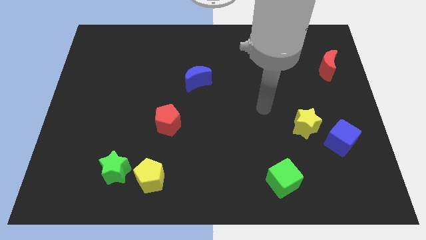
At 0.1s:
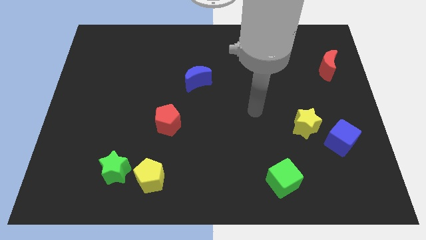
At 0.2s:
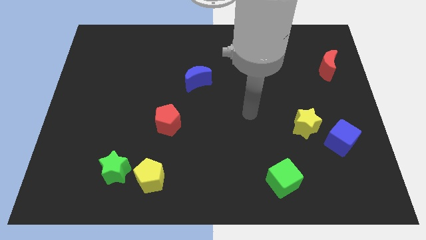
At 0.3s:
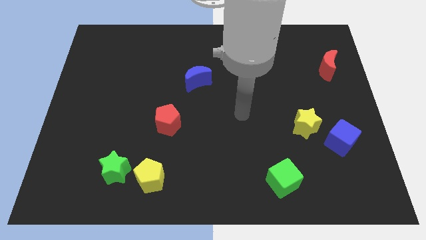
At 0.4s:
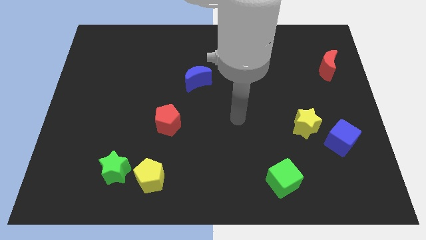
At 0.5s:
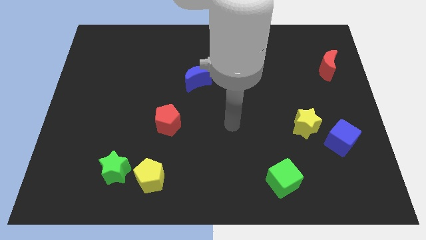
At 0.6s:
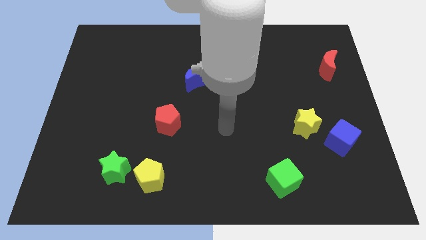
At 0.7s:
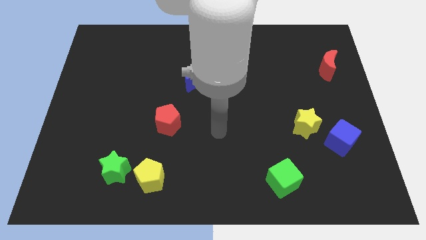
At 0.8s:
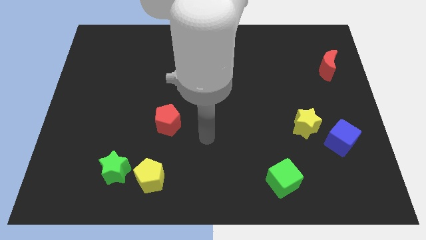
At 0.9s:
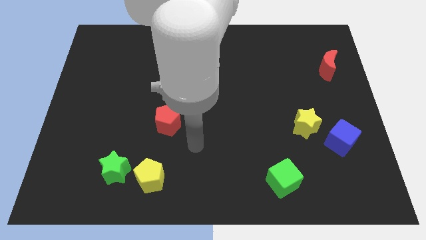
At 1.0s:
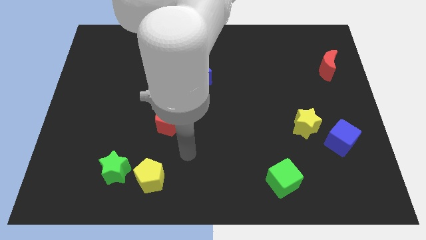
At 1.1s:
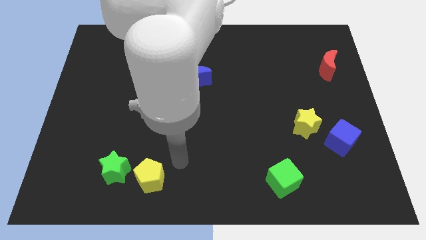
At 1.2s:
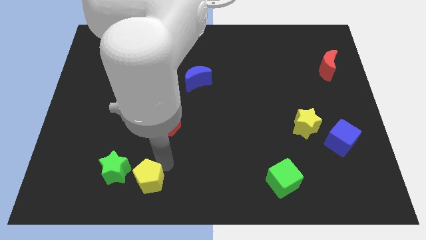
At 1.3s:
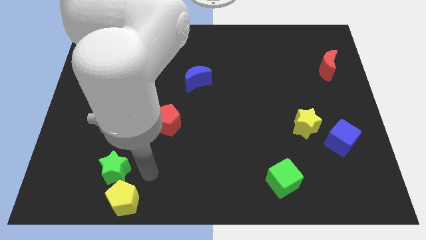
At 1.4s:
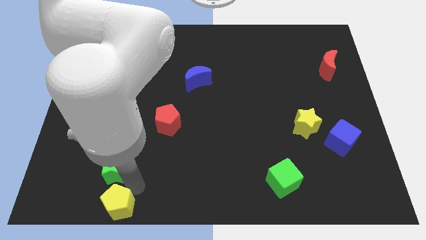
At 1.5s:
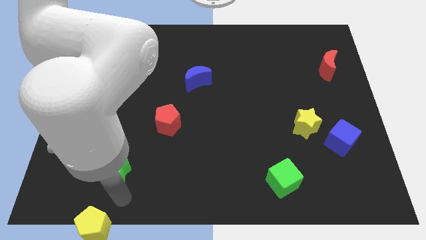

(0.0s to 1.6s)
move the green star away from the yellow pentagon

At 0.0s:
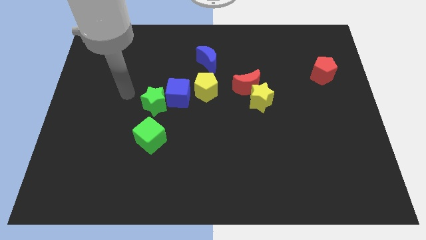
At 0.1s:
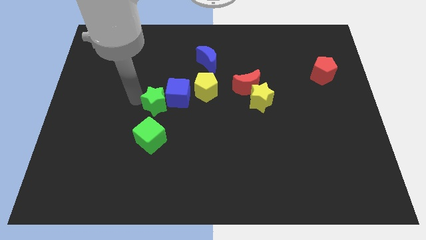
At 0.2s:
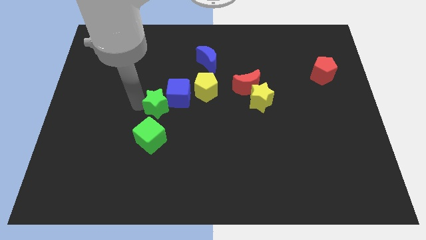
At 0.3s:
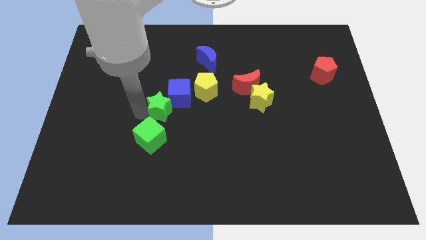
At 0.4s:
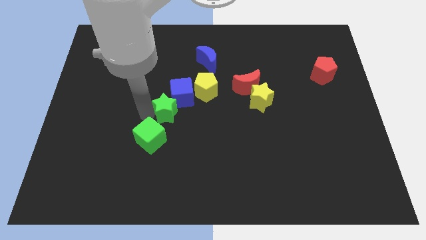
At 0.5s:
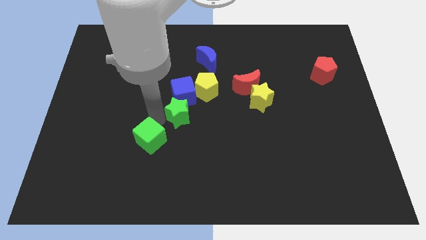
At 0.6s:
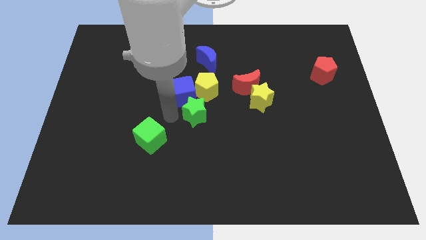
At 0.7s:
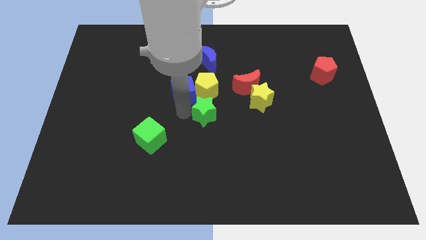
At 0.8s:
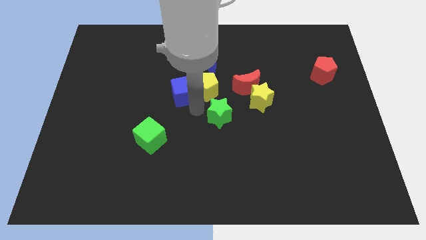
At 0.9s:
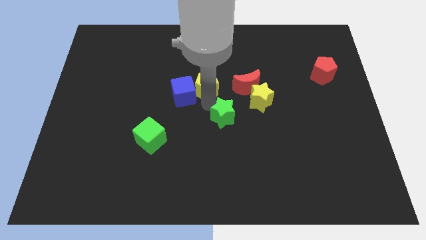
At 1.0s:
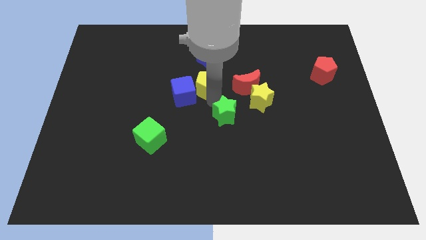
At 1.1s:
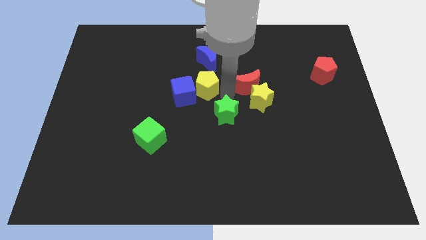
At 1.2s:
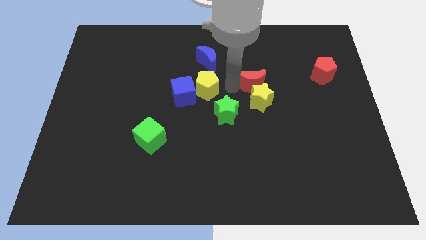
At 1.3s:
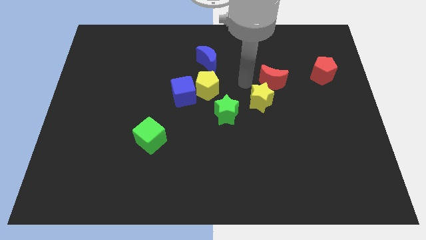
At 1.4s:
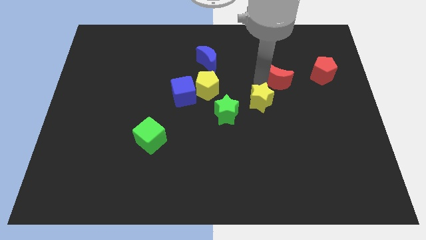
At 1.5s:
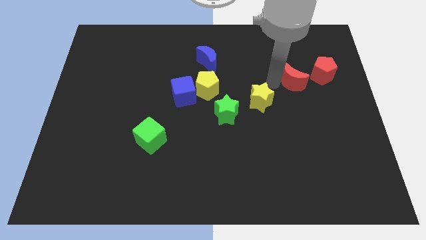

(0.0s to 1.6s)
separate the yellow star from the red moon

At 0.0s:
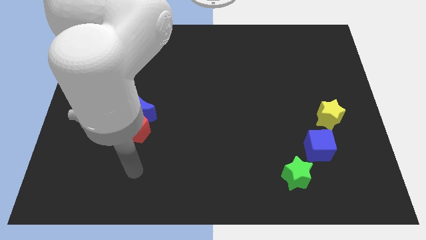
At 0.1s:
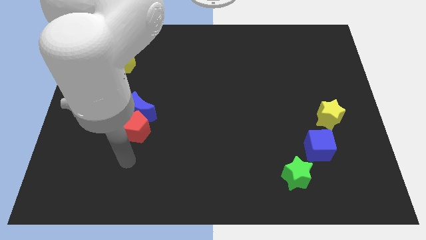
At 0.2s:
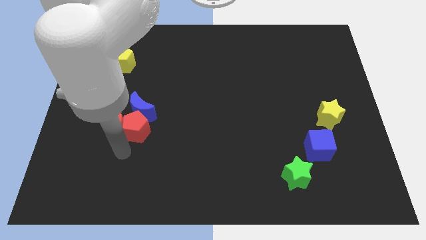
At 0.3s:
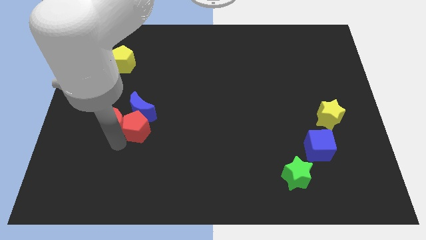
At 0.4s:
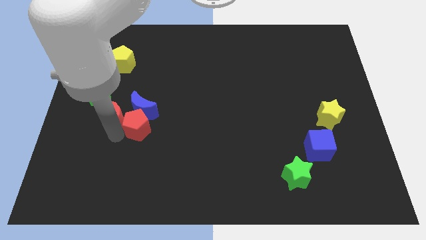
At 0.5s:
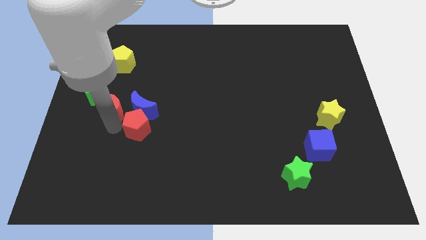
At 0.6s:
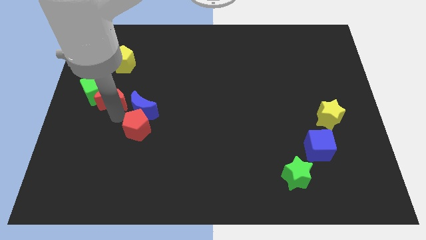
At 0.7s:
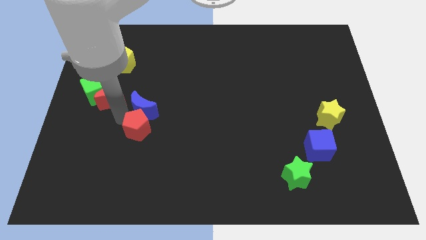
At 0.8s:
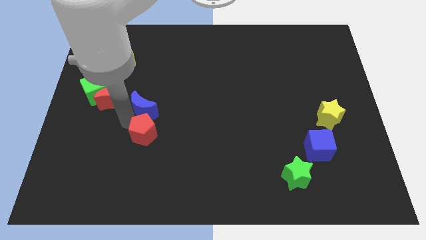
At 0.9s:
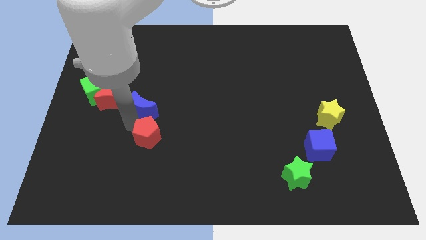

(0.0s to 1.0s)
pull the red pentagon apart from the blue moon and red moon

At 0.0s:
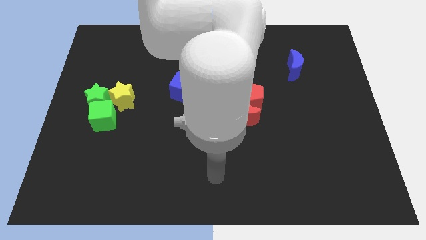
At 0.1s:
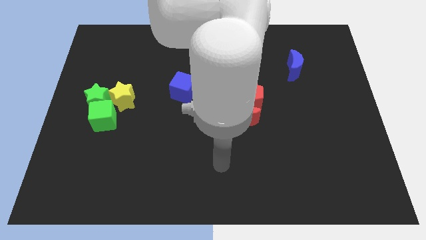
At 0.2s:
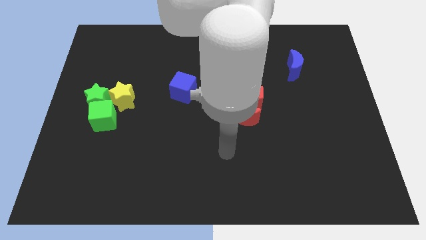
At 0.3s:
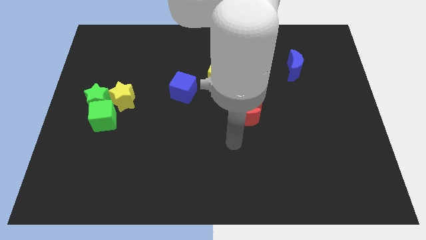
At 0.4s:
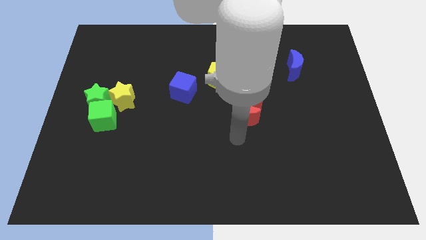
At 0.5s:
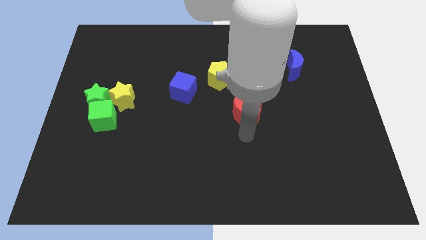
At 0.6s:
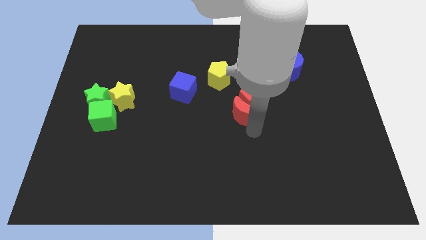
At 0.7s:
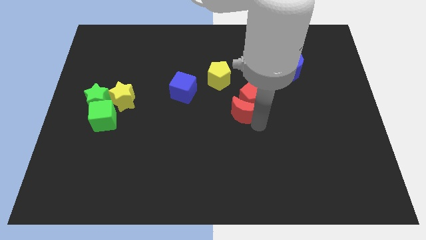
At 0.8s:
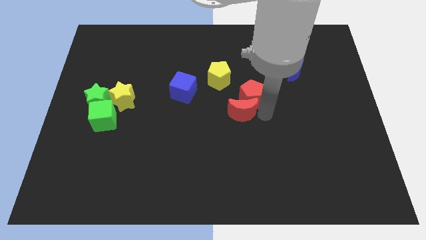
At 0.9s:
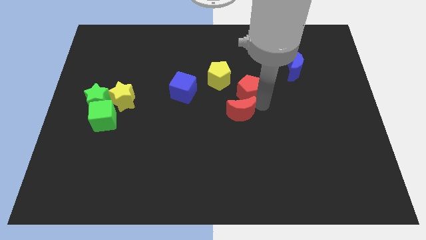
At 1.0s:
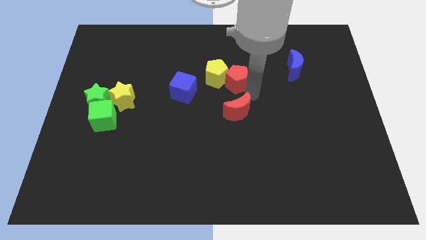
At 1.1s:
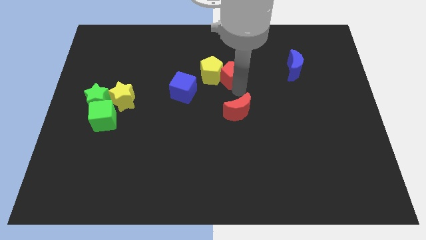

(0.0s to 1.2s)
pull the red moon apart from the red pentagon

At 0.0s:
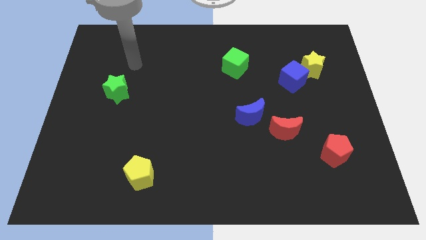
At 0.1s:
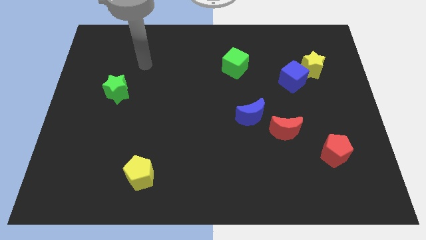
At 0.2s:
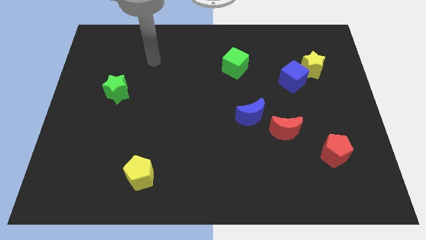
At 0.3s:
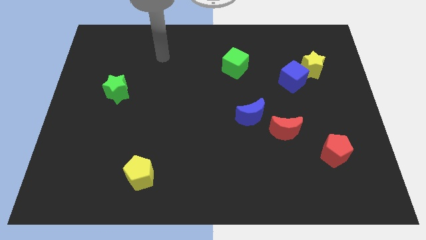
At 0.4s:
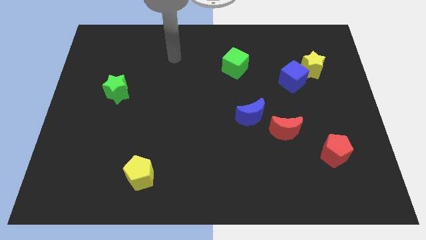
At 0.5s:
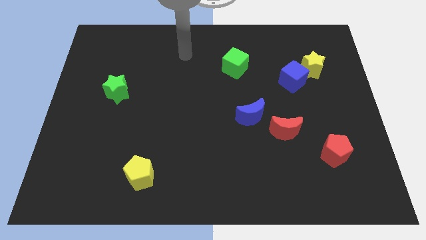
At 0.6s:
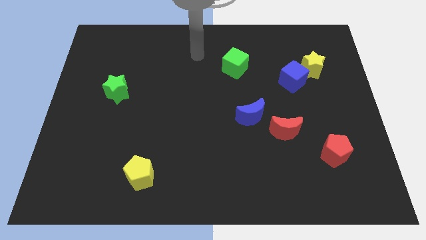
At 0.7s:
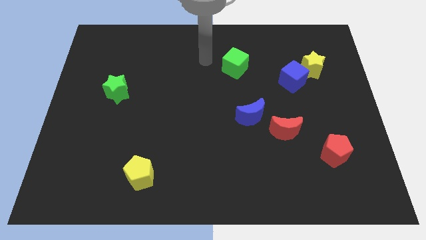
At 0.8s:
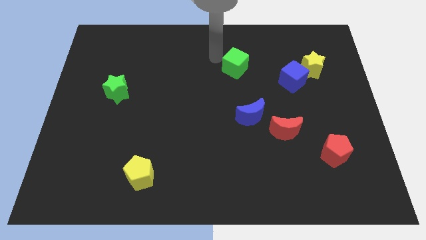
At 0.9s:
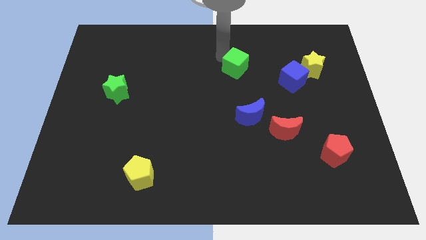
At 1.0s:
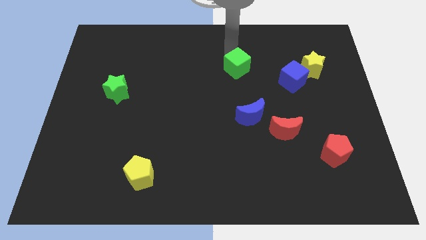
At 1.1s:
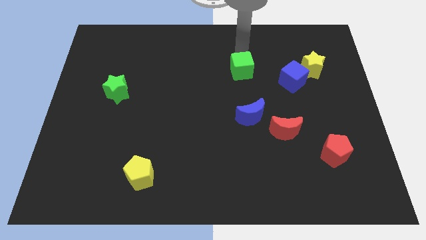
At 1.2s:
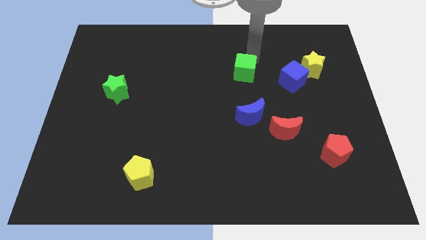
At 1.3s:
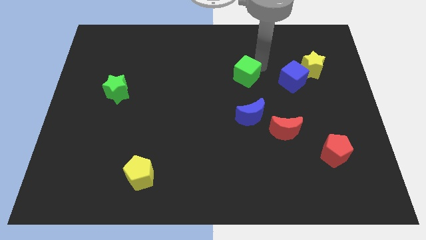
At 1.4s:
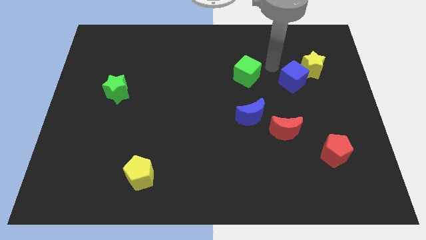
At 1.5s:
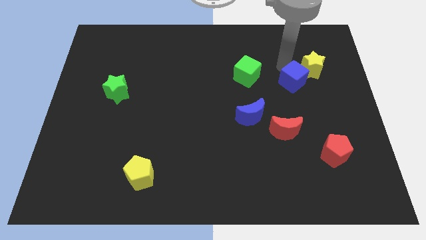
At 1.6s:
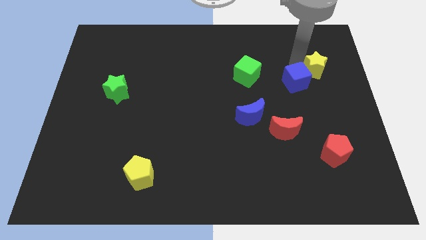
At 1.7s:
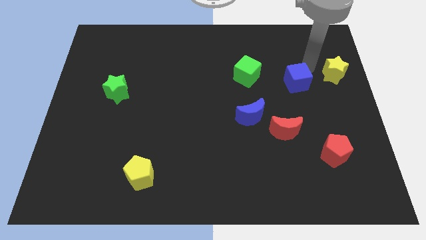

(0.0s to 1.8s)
move the blue cube away from the yellow star

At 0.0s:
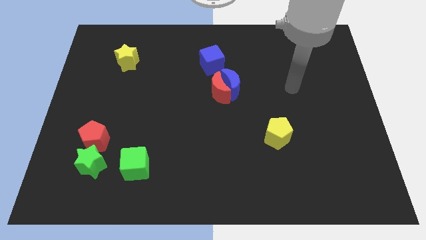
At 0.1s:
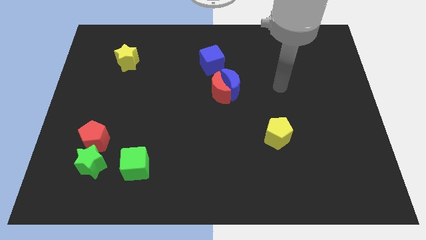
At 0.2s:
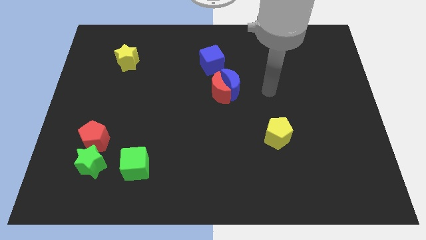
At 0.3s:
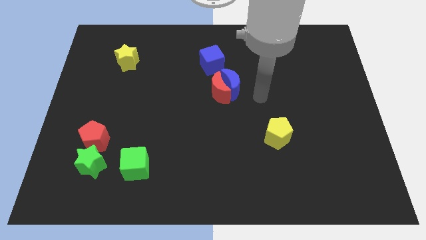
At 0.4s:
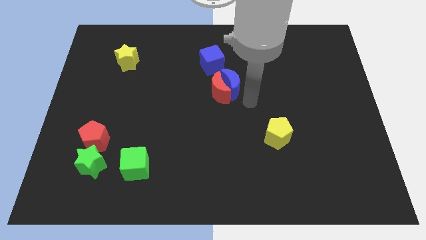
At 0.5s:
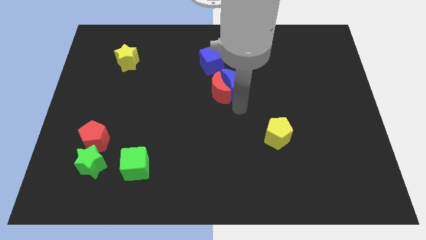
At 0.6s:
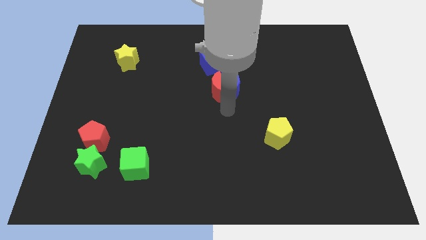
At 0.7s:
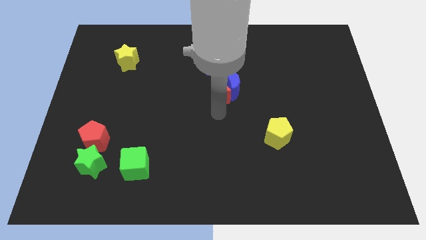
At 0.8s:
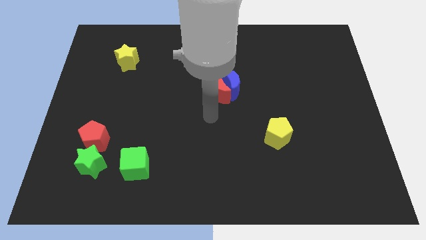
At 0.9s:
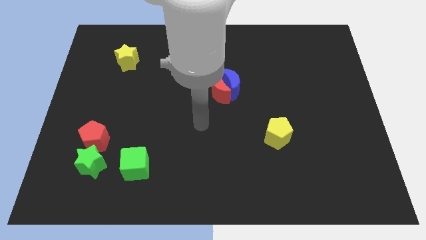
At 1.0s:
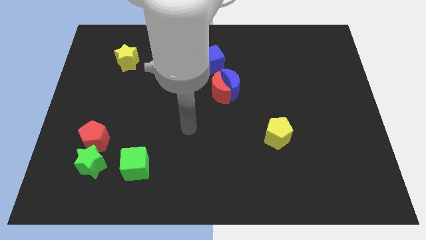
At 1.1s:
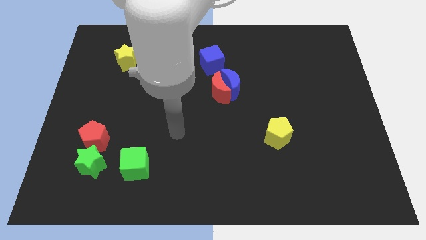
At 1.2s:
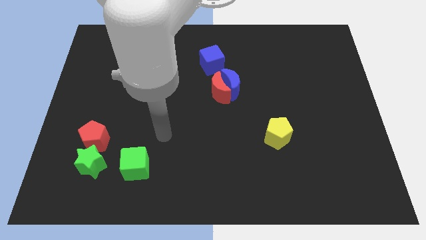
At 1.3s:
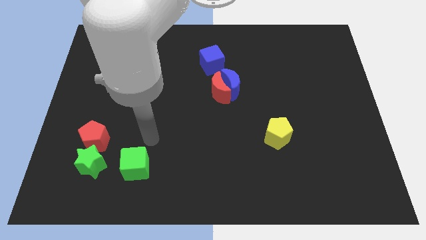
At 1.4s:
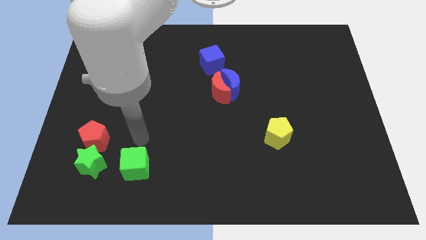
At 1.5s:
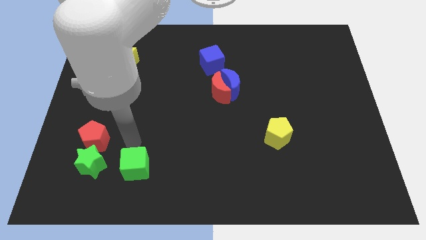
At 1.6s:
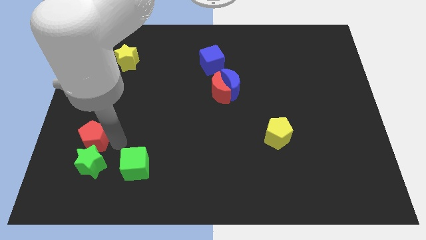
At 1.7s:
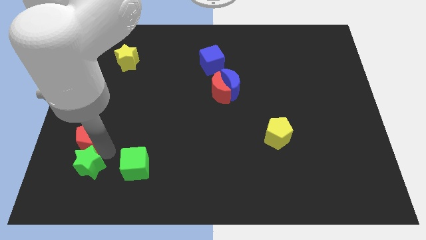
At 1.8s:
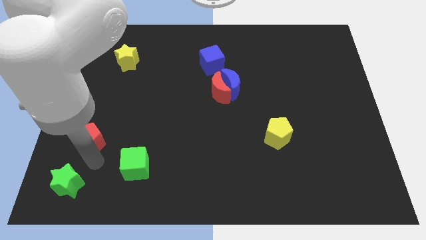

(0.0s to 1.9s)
pull the red pentagon apart from the green star

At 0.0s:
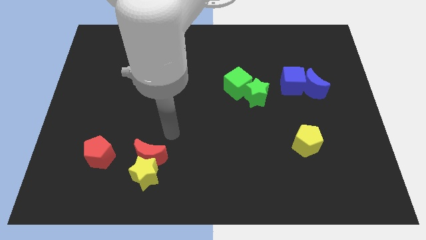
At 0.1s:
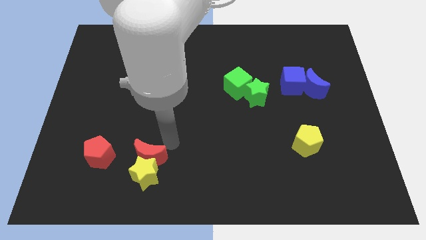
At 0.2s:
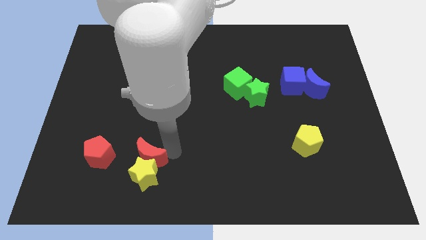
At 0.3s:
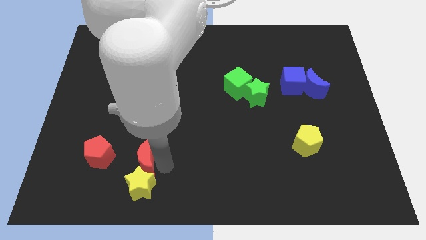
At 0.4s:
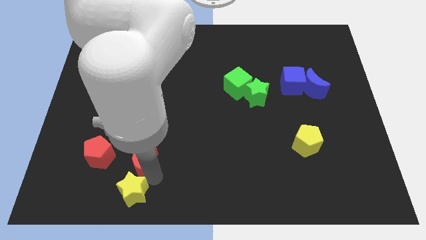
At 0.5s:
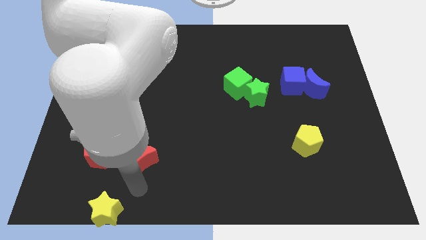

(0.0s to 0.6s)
pull the red moon apart from the yellow star
